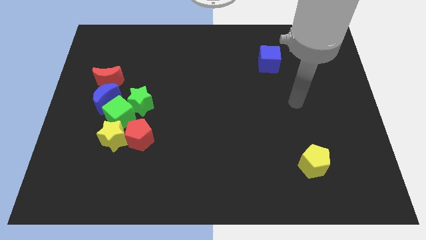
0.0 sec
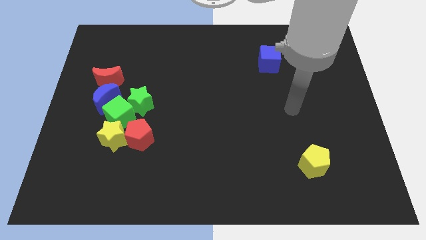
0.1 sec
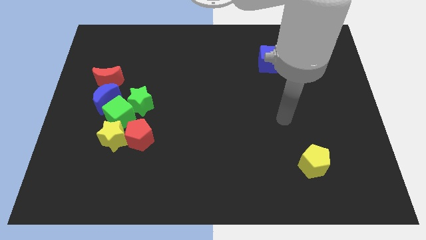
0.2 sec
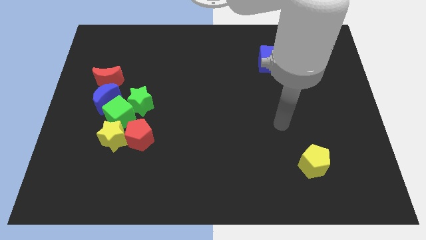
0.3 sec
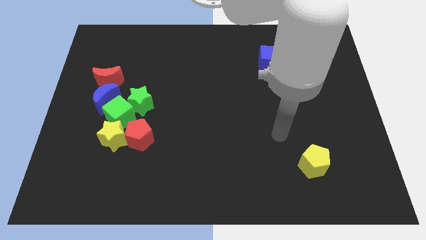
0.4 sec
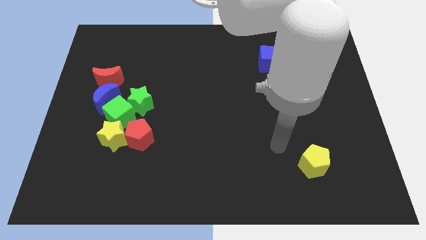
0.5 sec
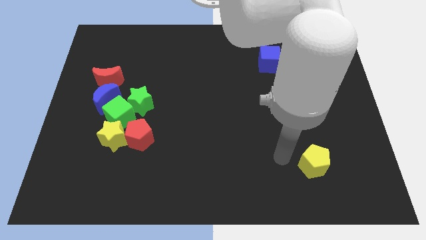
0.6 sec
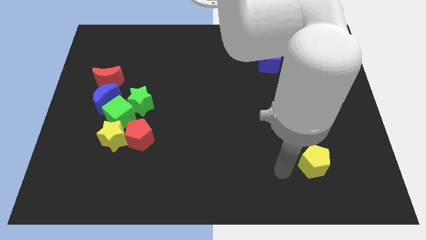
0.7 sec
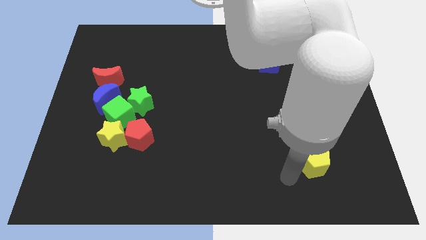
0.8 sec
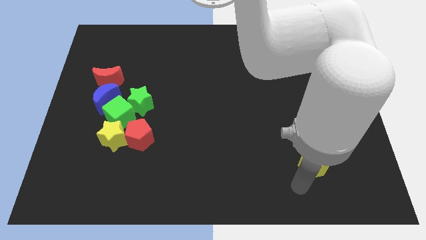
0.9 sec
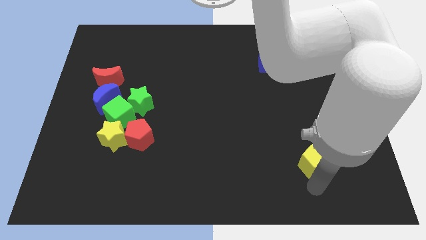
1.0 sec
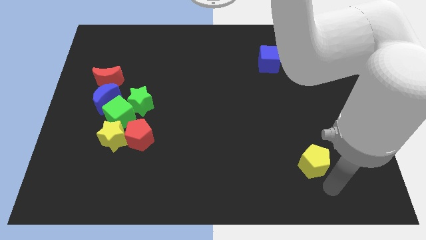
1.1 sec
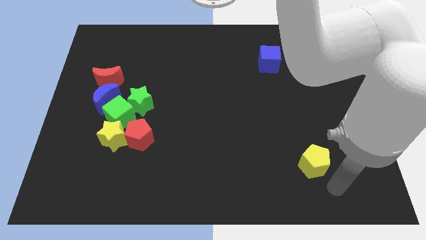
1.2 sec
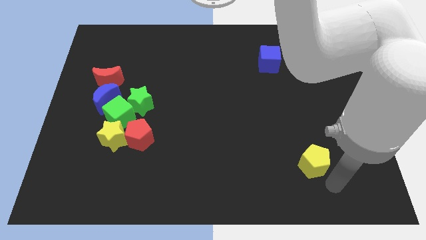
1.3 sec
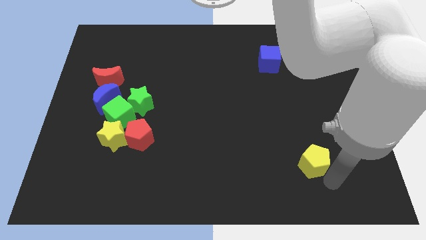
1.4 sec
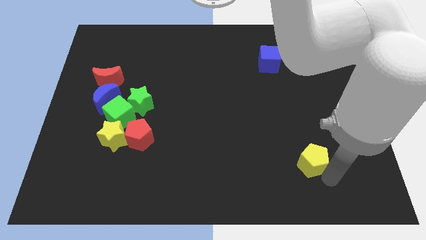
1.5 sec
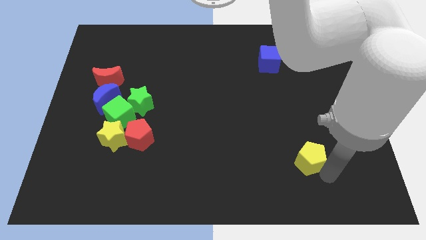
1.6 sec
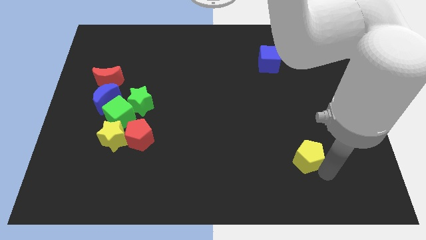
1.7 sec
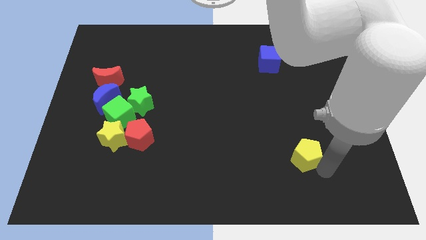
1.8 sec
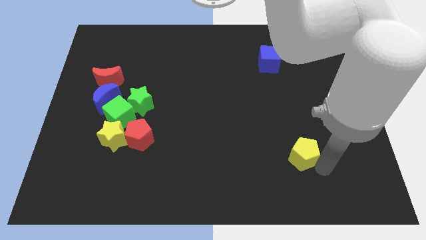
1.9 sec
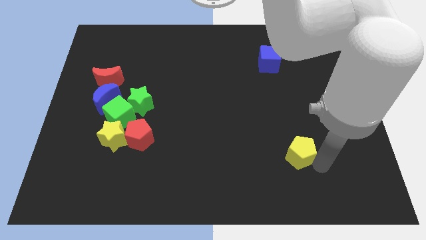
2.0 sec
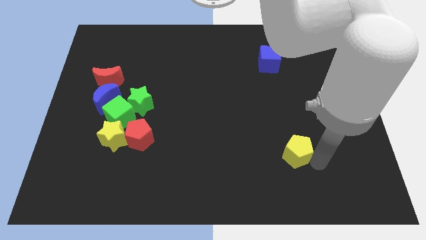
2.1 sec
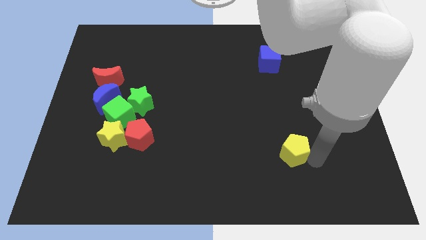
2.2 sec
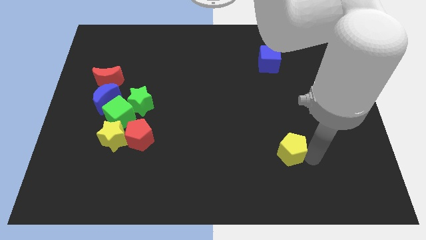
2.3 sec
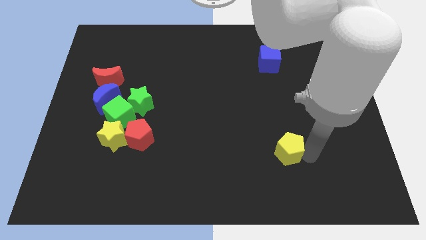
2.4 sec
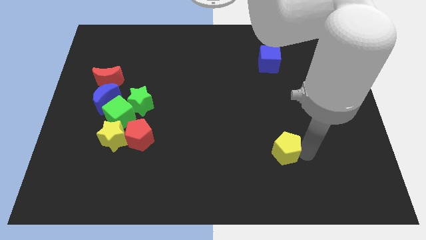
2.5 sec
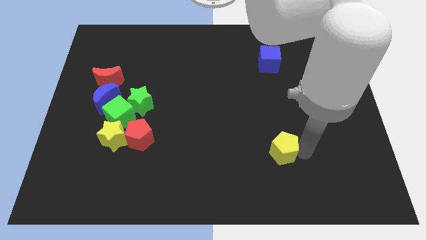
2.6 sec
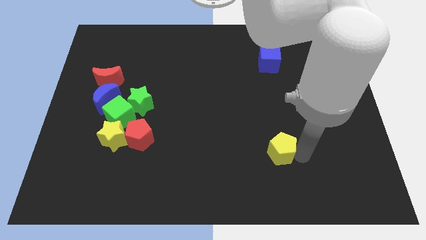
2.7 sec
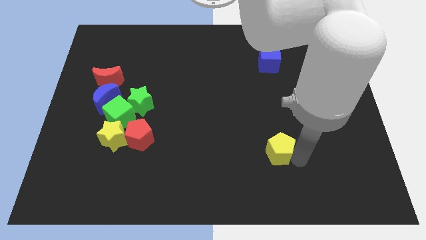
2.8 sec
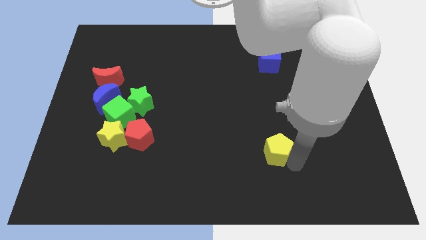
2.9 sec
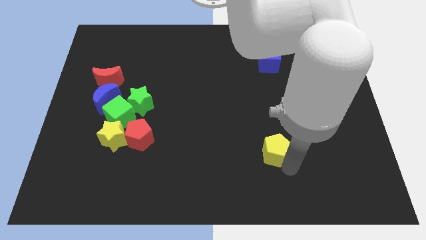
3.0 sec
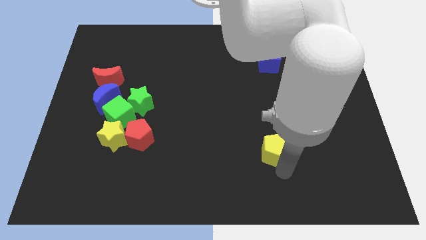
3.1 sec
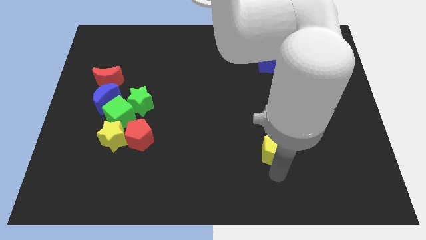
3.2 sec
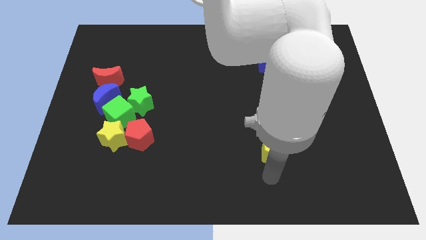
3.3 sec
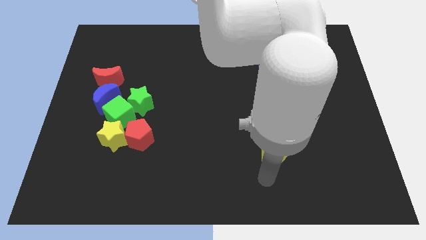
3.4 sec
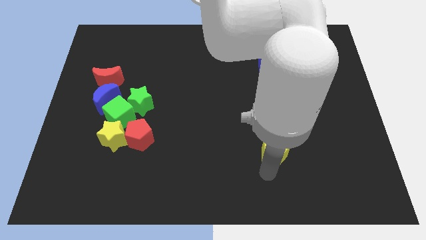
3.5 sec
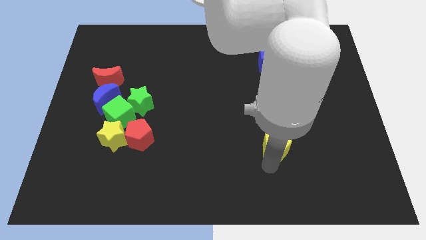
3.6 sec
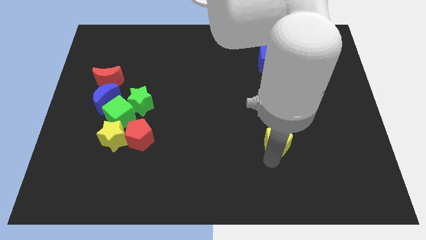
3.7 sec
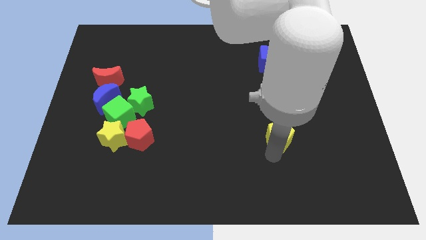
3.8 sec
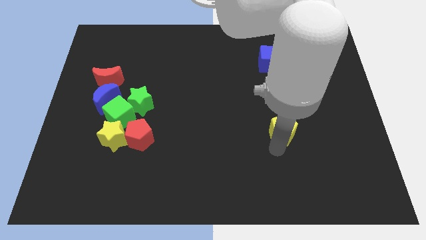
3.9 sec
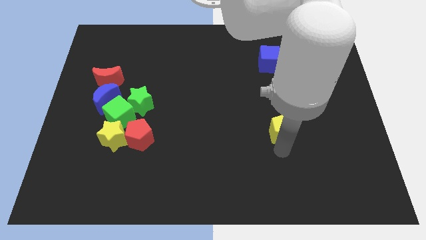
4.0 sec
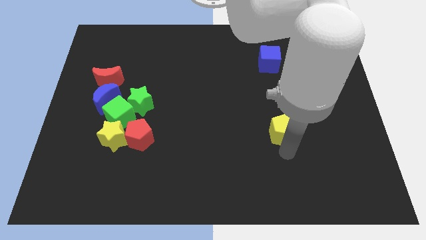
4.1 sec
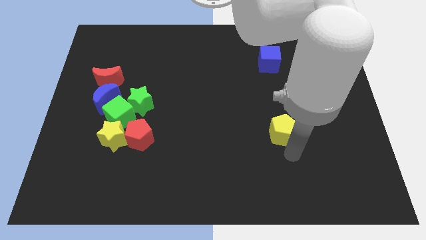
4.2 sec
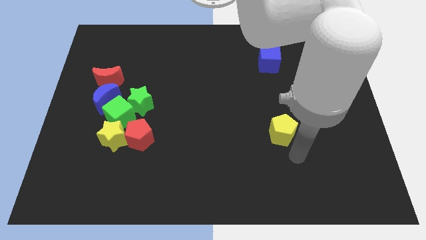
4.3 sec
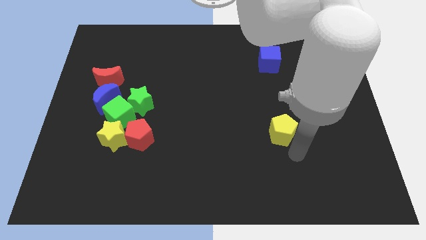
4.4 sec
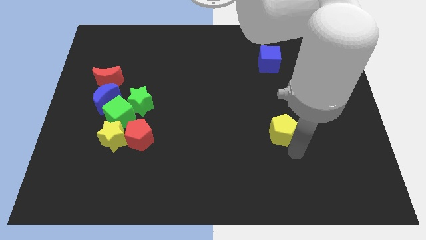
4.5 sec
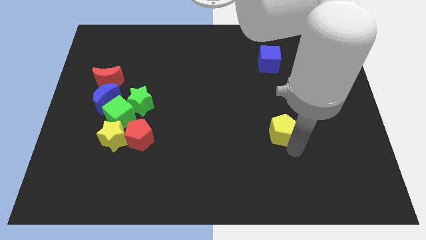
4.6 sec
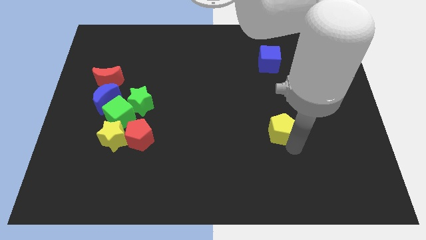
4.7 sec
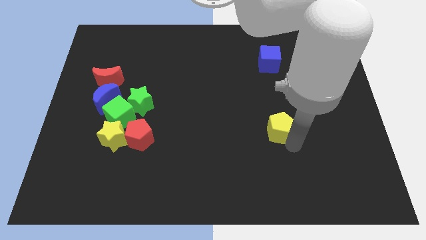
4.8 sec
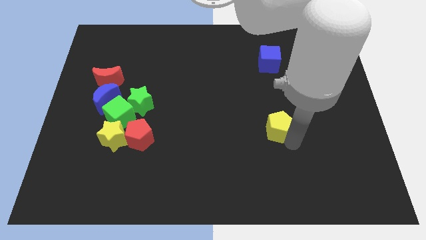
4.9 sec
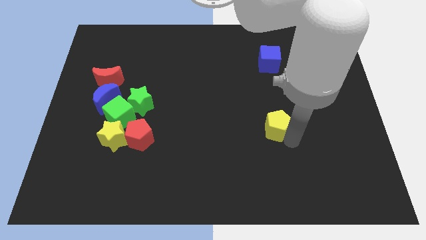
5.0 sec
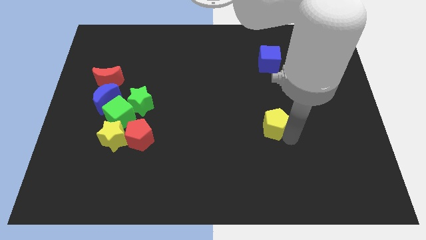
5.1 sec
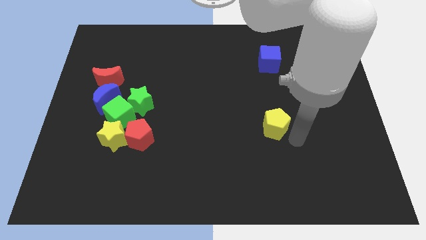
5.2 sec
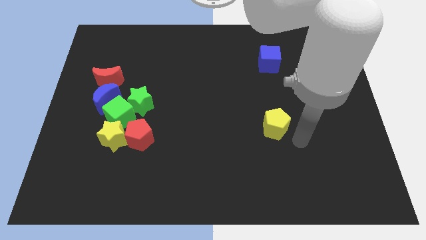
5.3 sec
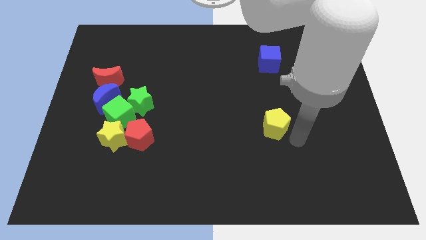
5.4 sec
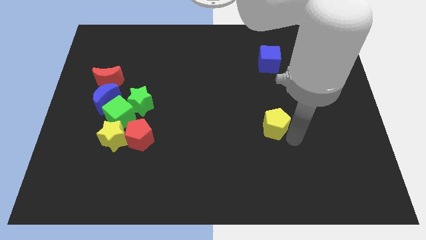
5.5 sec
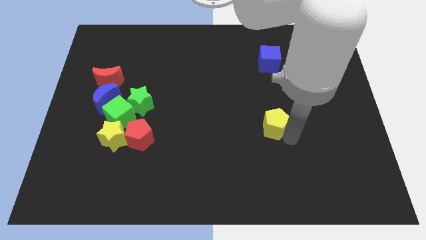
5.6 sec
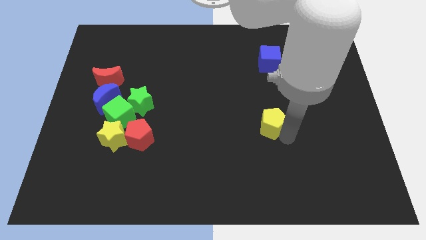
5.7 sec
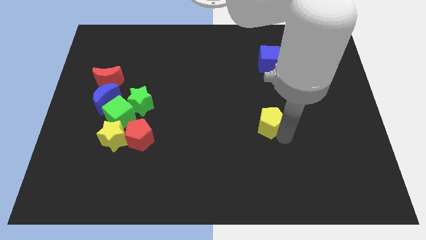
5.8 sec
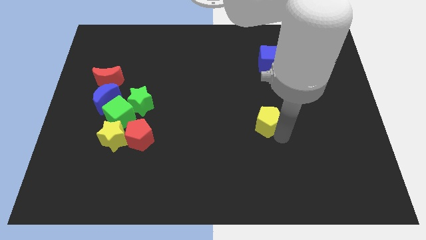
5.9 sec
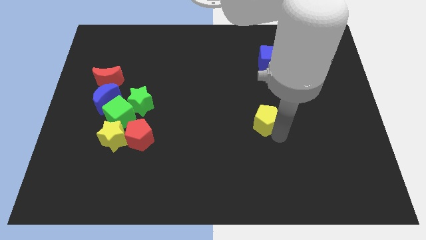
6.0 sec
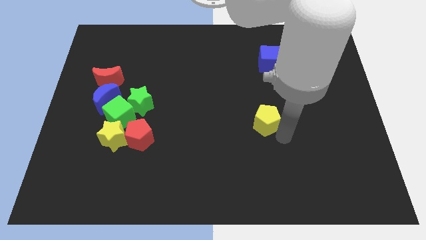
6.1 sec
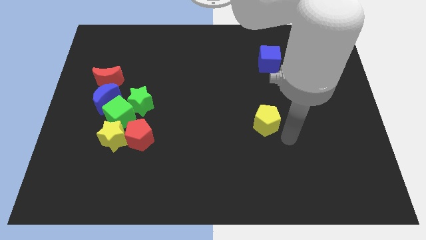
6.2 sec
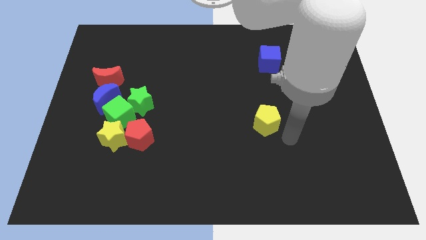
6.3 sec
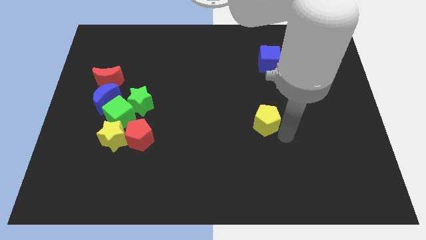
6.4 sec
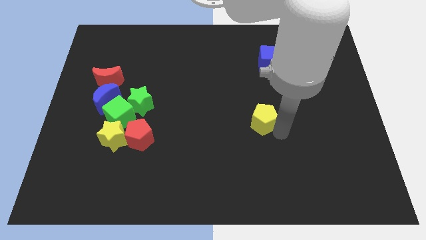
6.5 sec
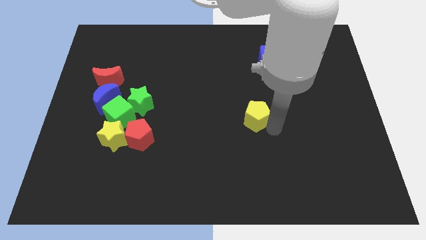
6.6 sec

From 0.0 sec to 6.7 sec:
slide the yellow pentagon to the middle

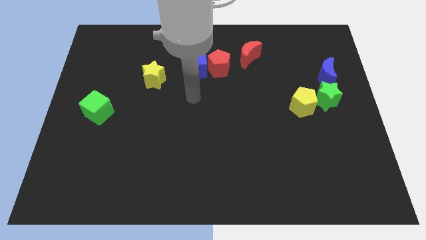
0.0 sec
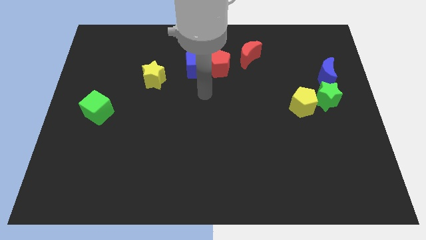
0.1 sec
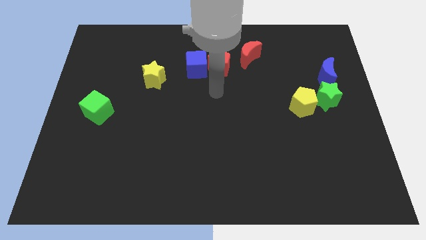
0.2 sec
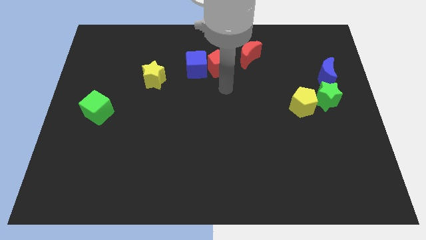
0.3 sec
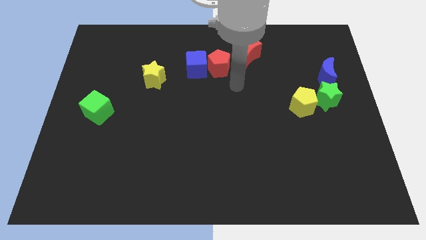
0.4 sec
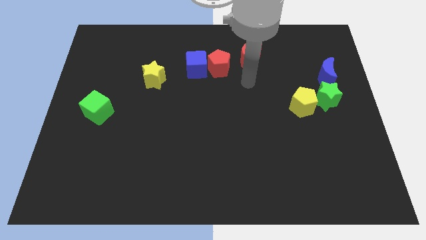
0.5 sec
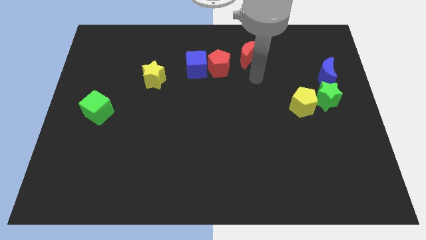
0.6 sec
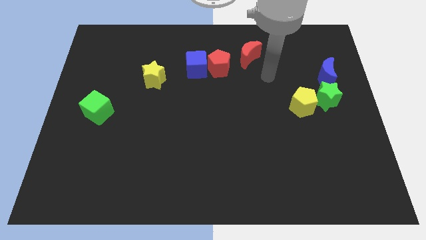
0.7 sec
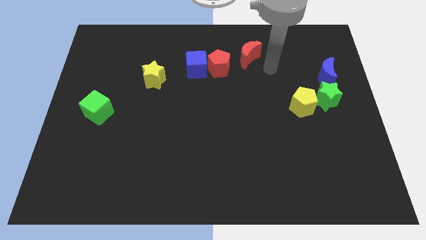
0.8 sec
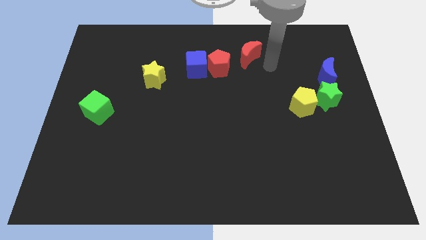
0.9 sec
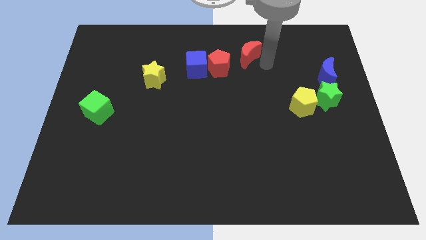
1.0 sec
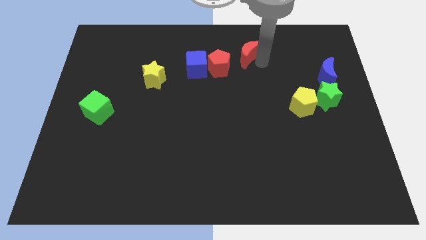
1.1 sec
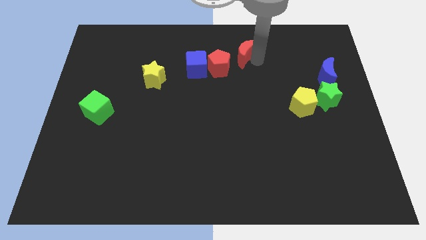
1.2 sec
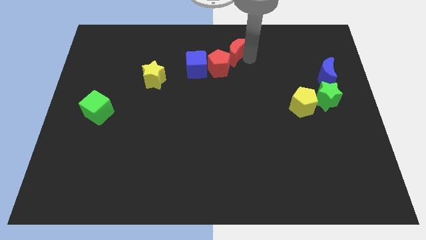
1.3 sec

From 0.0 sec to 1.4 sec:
slide the red moon to the top side
